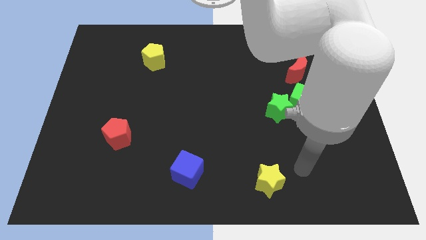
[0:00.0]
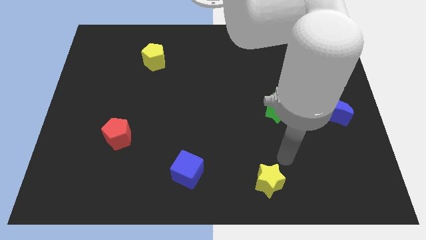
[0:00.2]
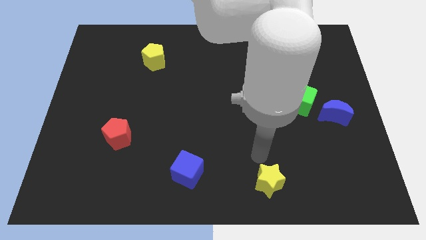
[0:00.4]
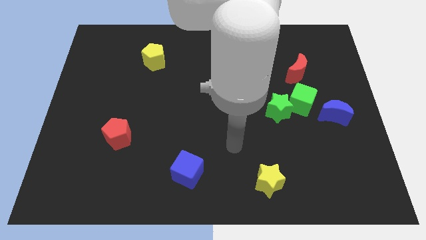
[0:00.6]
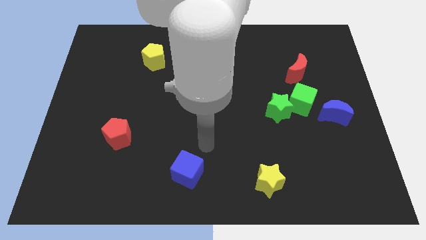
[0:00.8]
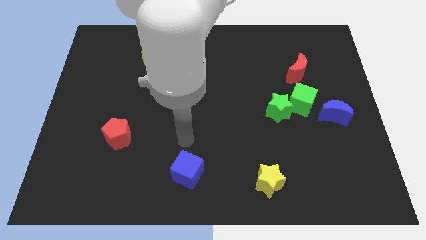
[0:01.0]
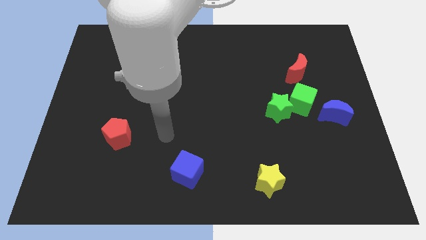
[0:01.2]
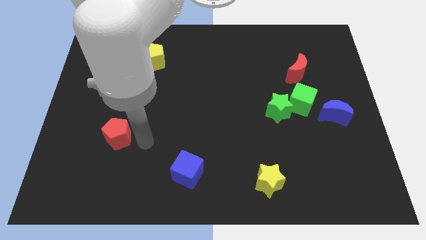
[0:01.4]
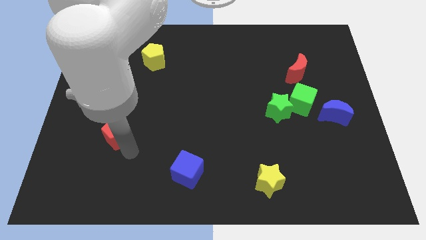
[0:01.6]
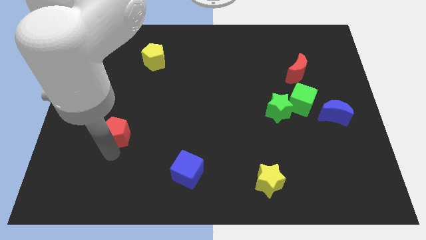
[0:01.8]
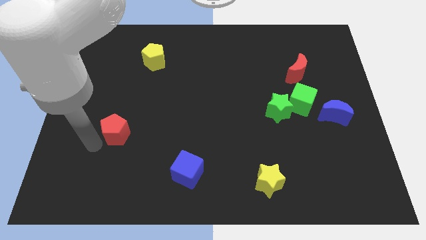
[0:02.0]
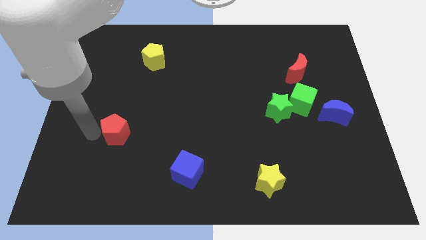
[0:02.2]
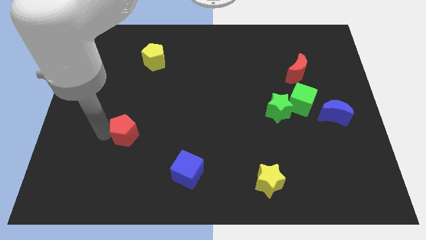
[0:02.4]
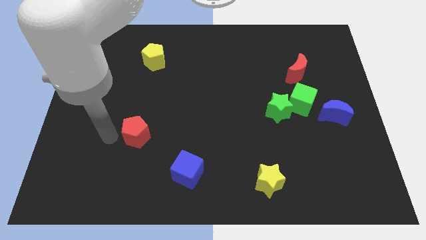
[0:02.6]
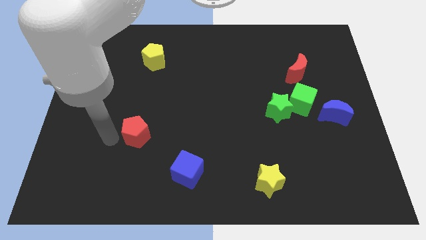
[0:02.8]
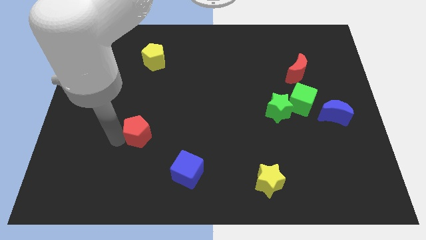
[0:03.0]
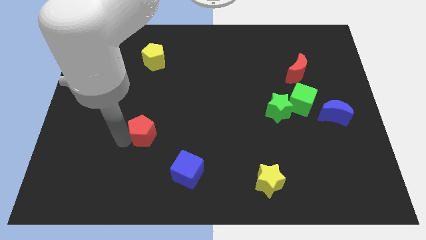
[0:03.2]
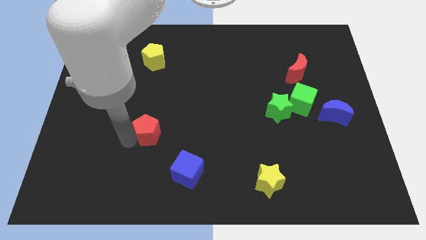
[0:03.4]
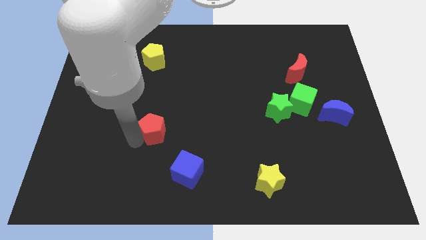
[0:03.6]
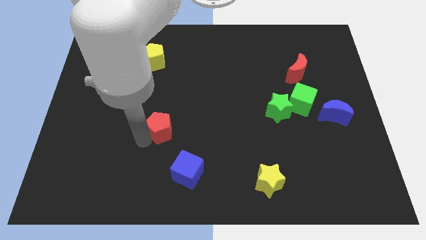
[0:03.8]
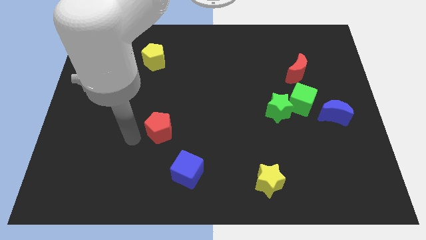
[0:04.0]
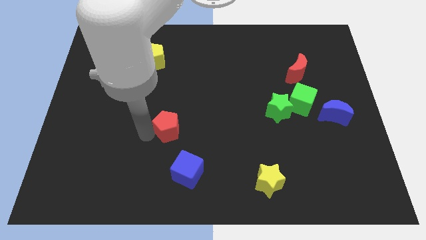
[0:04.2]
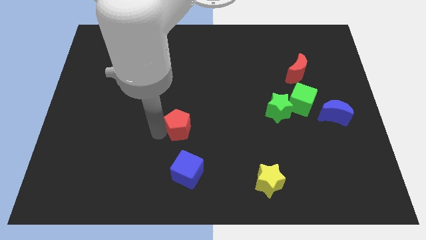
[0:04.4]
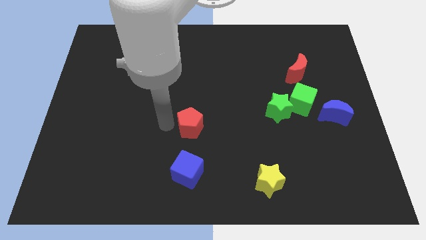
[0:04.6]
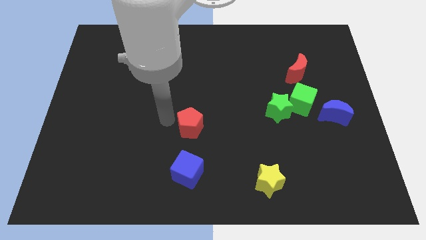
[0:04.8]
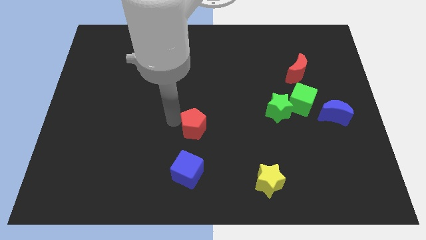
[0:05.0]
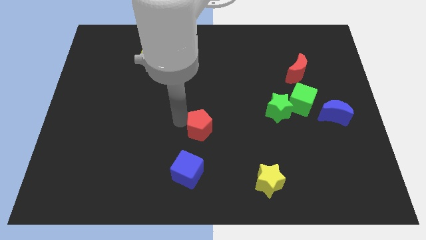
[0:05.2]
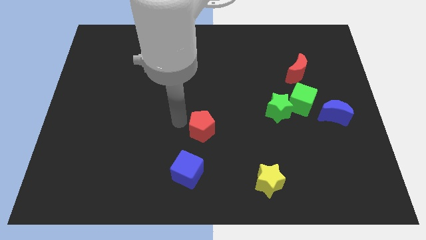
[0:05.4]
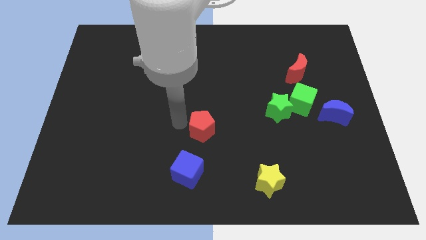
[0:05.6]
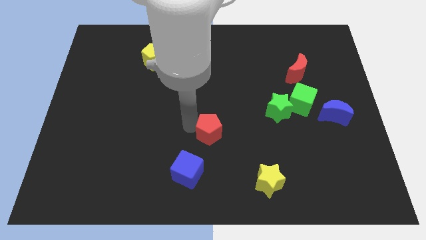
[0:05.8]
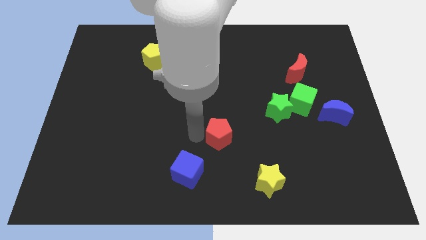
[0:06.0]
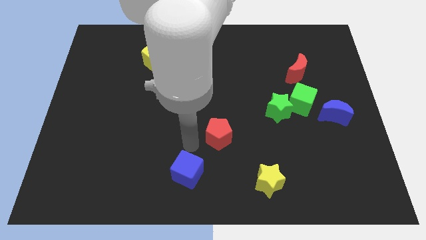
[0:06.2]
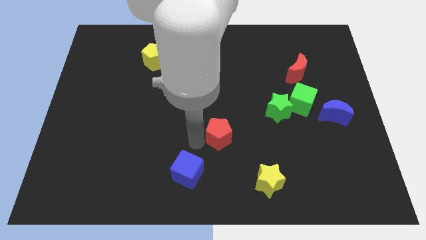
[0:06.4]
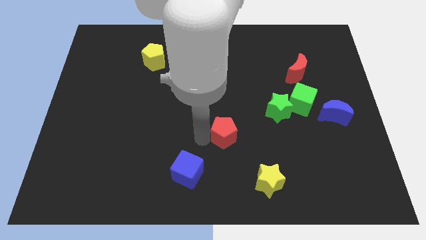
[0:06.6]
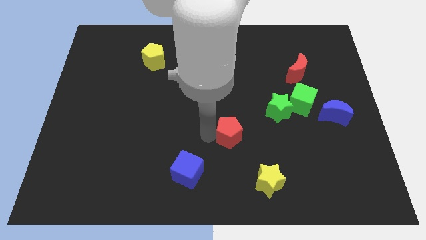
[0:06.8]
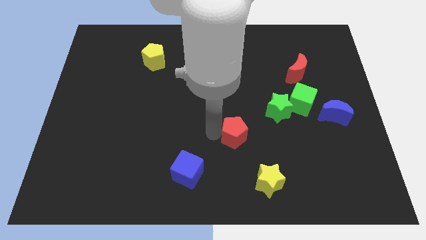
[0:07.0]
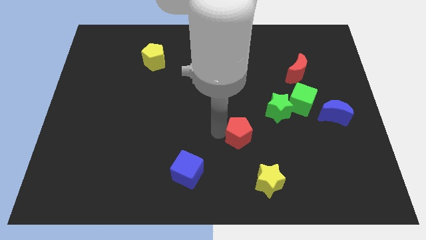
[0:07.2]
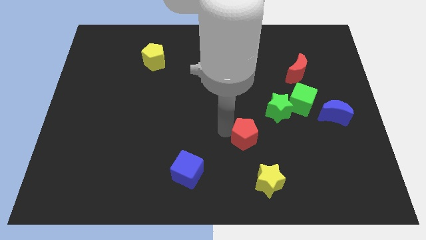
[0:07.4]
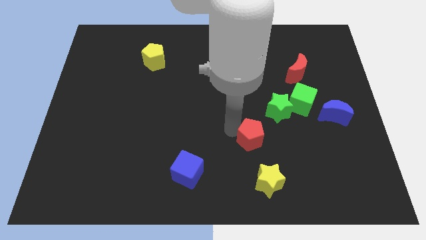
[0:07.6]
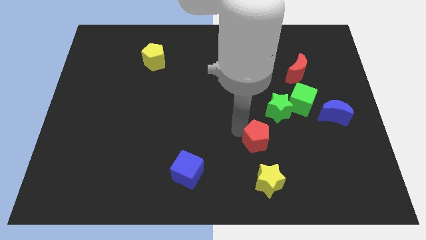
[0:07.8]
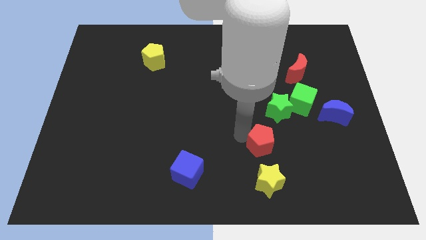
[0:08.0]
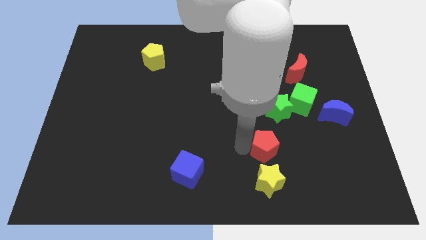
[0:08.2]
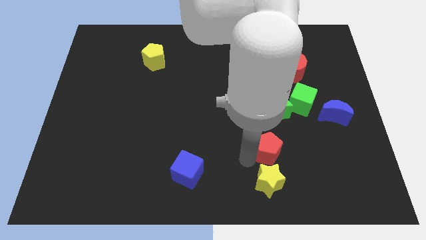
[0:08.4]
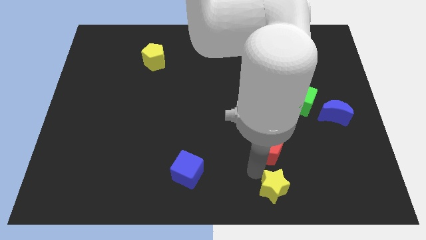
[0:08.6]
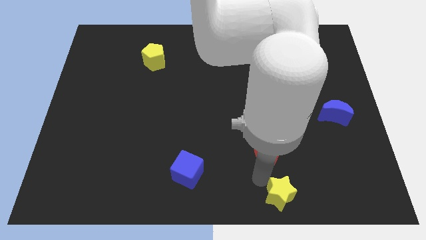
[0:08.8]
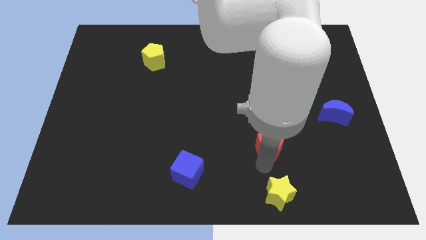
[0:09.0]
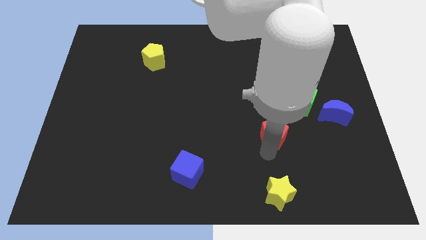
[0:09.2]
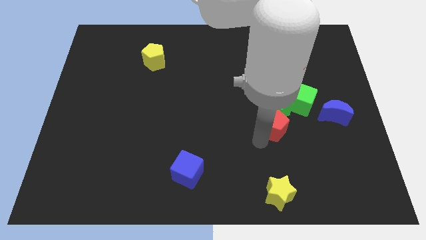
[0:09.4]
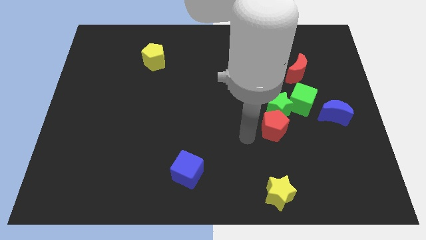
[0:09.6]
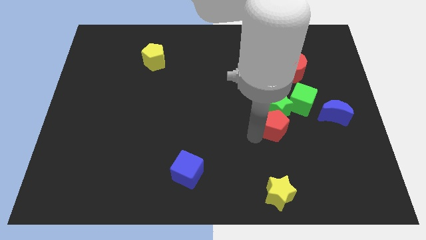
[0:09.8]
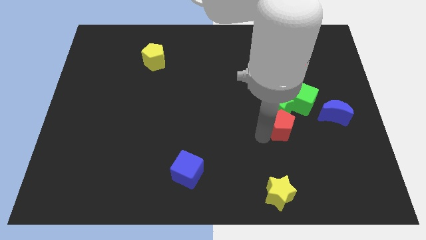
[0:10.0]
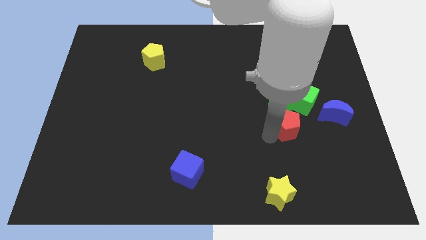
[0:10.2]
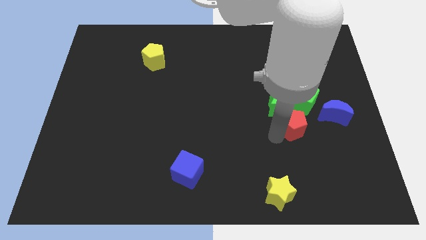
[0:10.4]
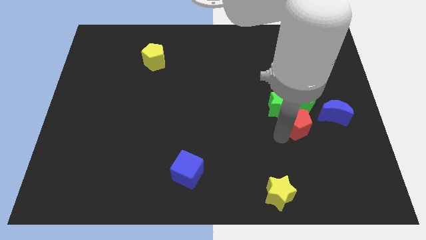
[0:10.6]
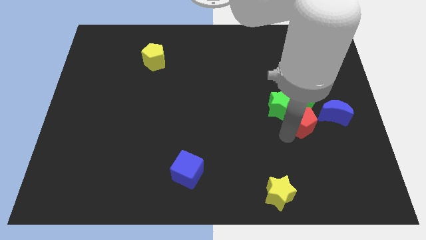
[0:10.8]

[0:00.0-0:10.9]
push the red pentagon to the bottom of the red moon

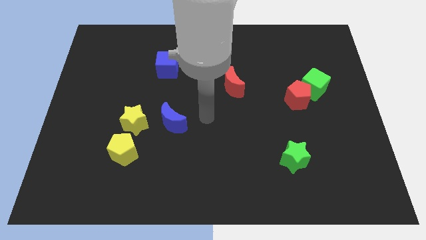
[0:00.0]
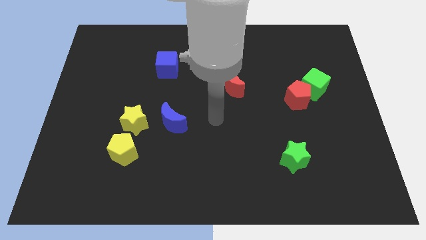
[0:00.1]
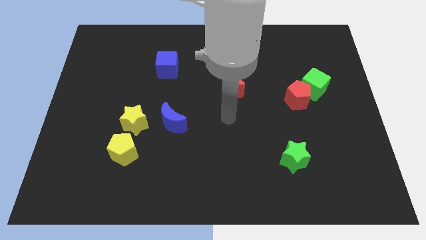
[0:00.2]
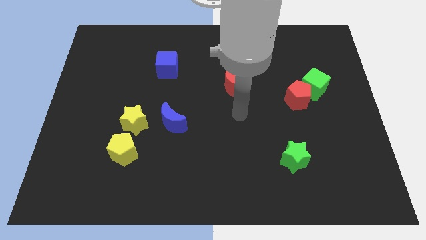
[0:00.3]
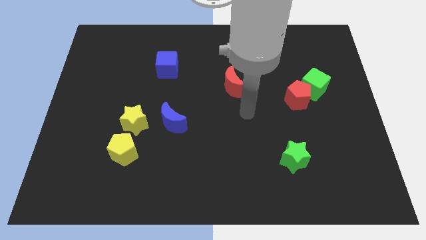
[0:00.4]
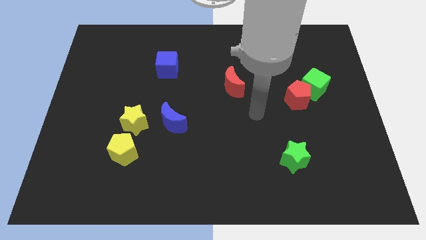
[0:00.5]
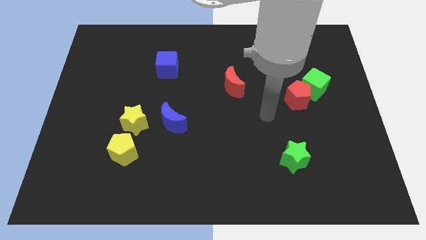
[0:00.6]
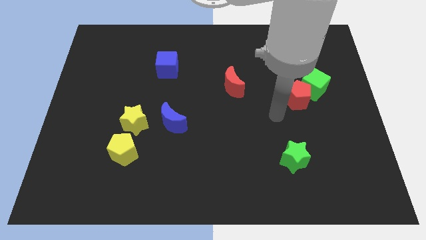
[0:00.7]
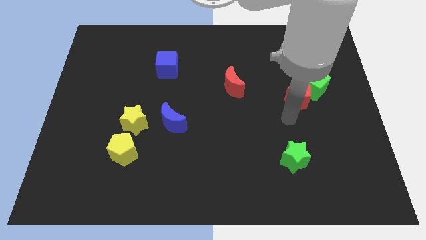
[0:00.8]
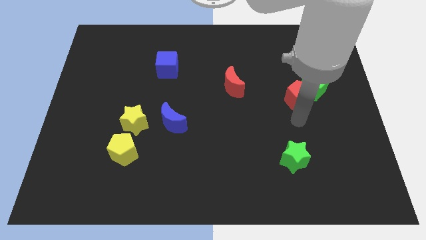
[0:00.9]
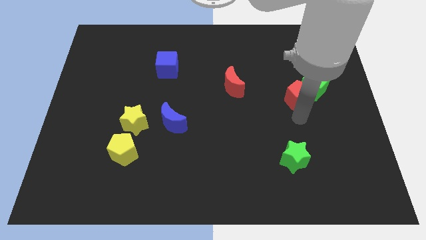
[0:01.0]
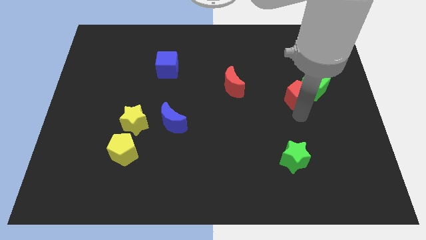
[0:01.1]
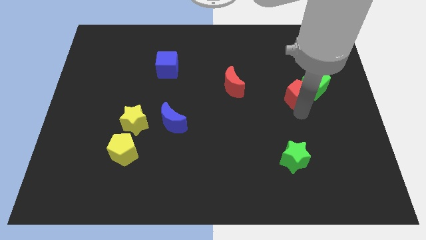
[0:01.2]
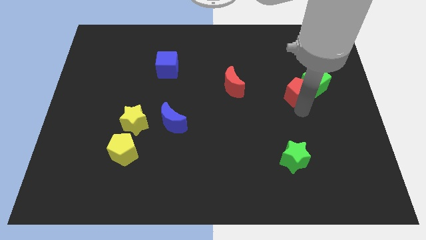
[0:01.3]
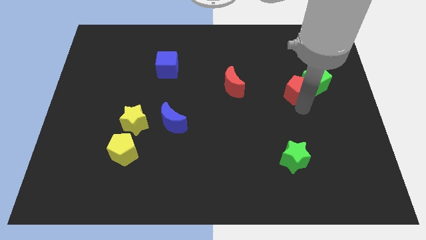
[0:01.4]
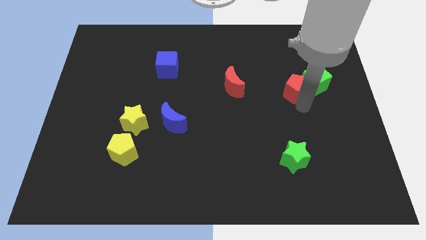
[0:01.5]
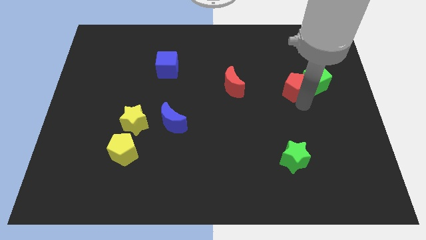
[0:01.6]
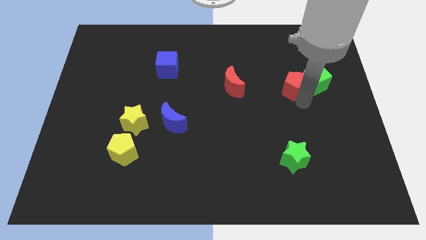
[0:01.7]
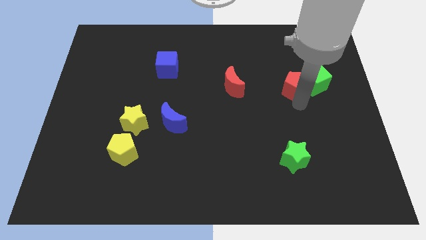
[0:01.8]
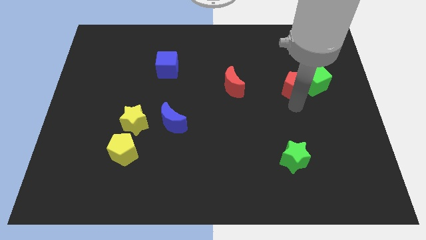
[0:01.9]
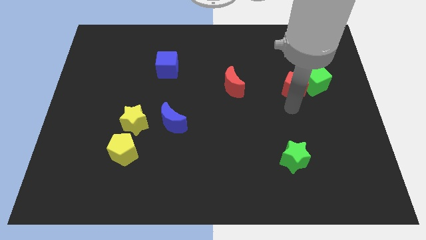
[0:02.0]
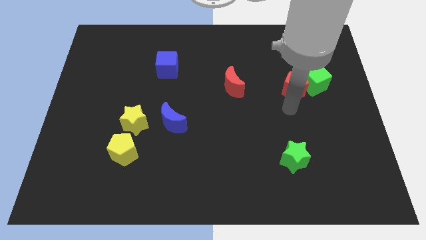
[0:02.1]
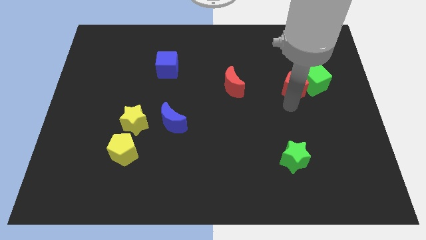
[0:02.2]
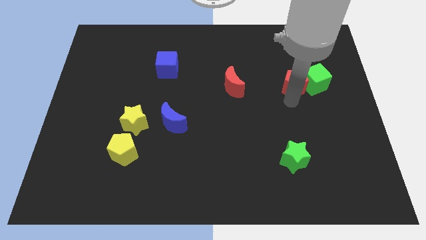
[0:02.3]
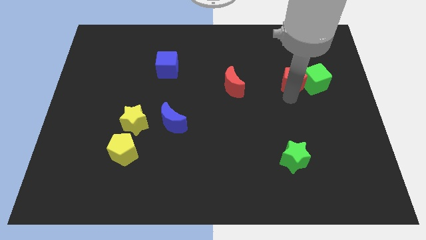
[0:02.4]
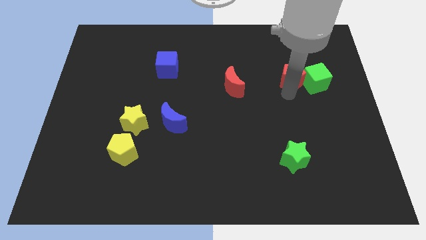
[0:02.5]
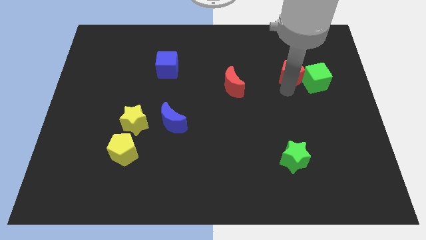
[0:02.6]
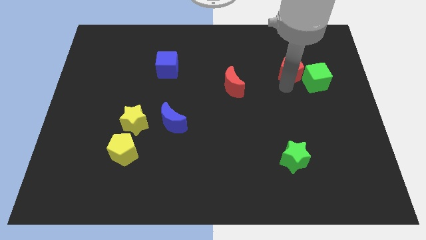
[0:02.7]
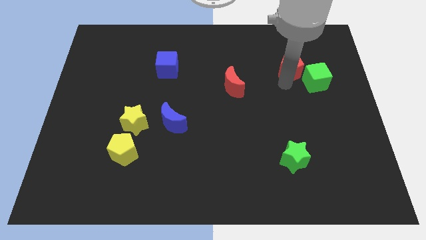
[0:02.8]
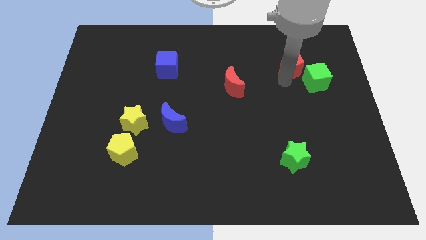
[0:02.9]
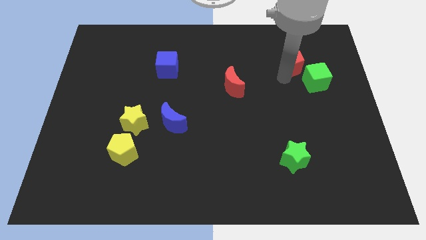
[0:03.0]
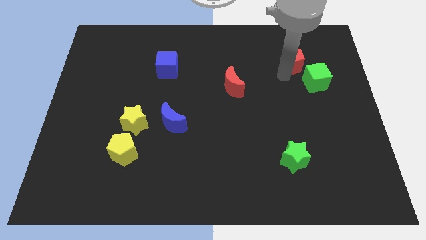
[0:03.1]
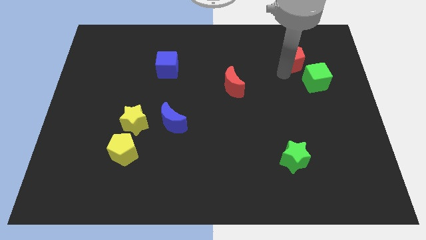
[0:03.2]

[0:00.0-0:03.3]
move the red pentagon to the top side of the green cube
